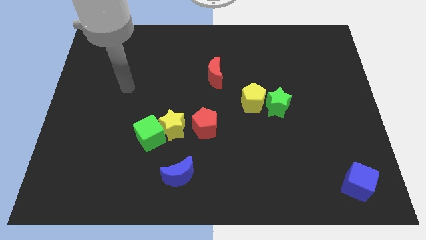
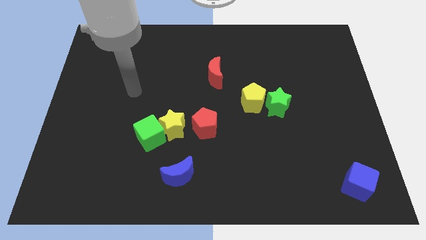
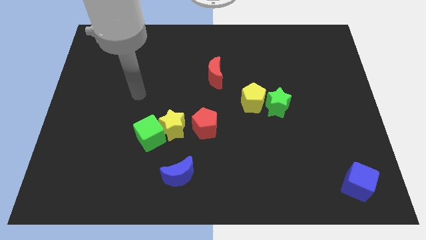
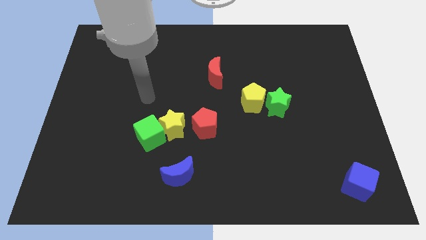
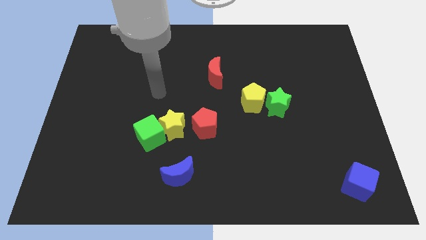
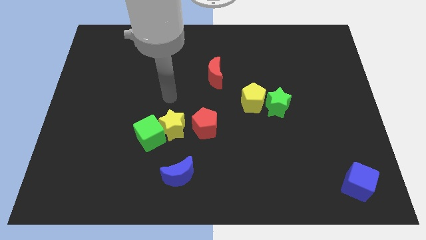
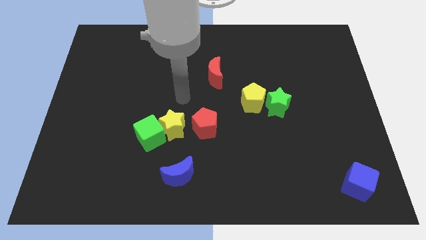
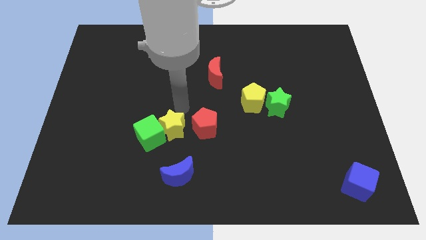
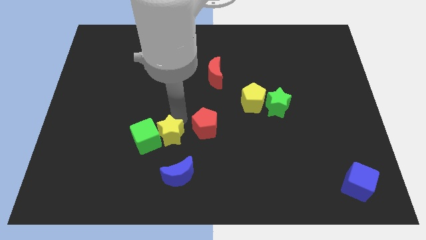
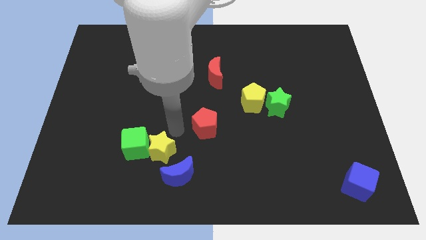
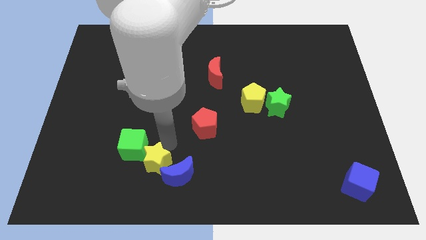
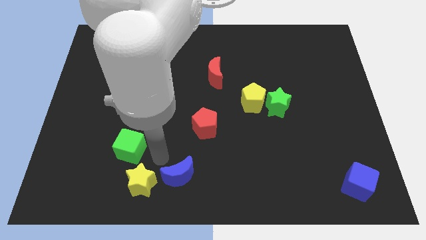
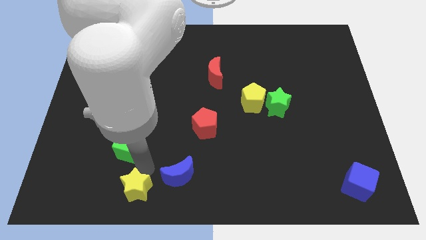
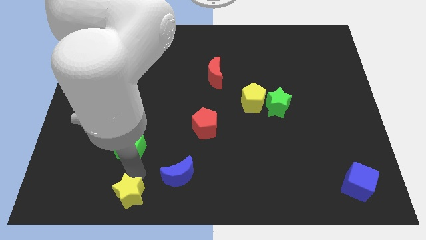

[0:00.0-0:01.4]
separate the green cube from the yellow star

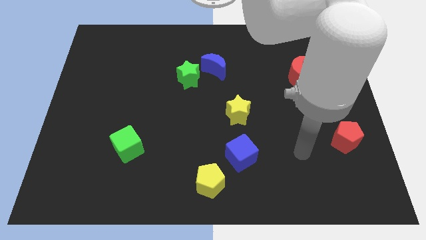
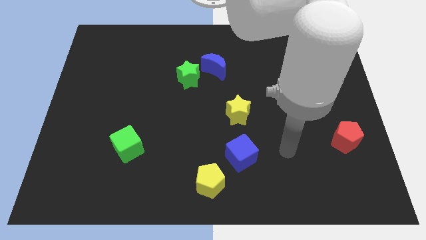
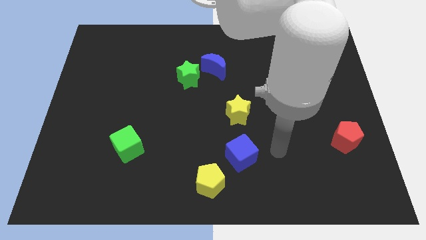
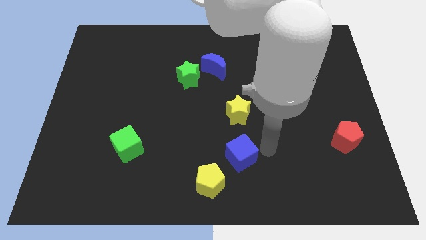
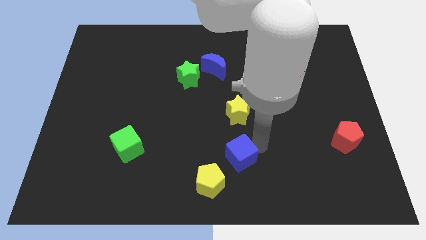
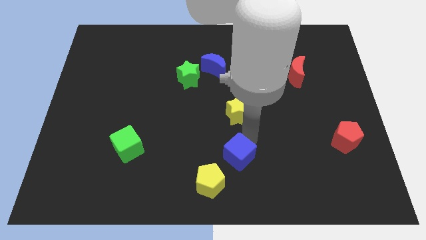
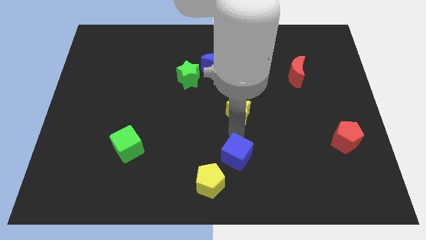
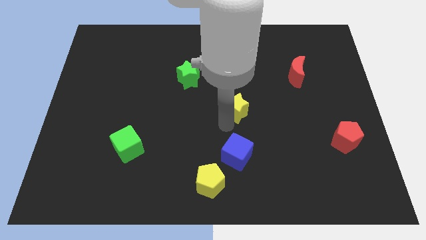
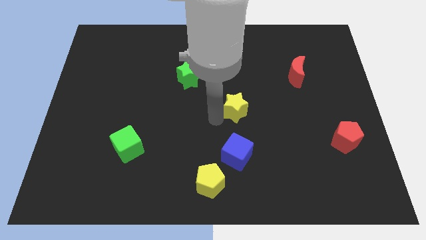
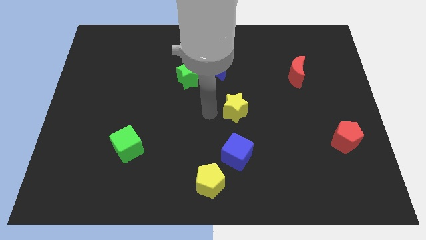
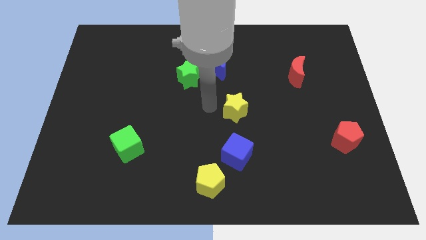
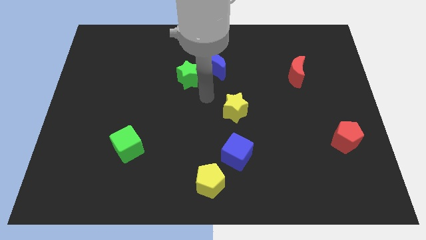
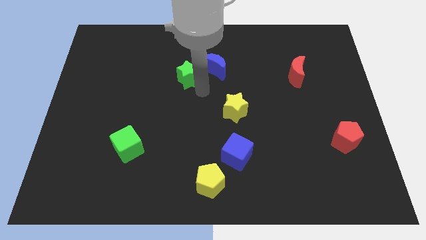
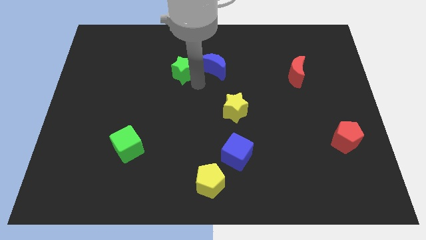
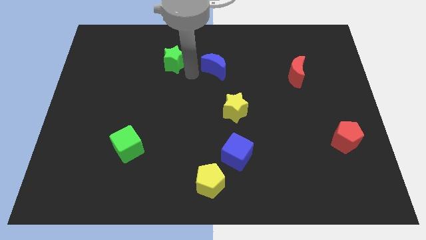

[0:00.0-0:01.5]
move the blue moon away from the green star

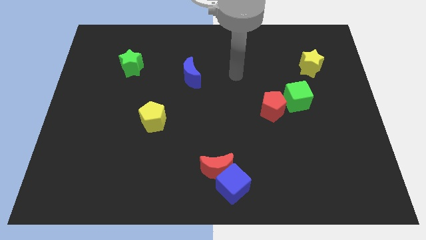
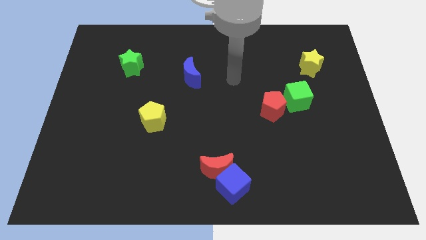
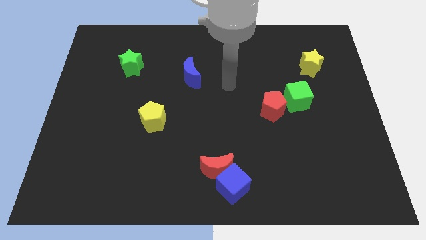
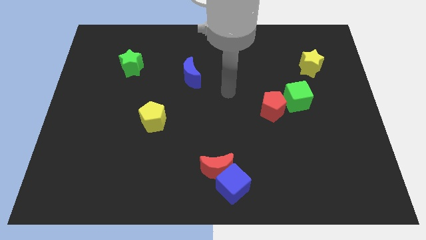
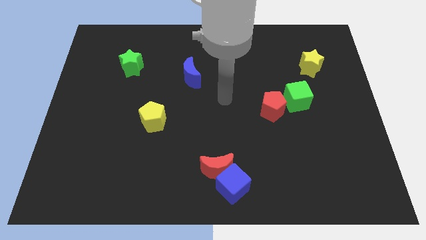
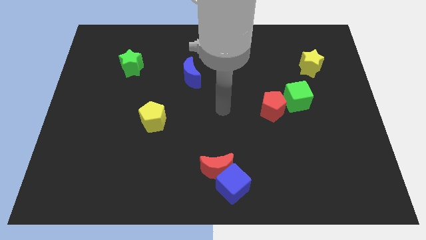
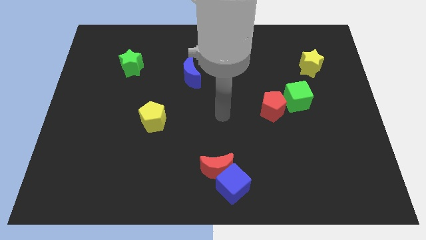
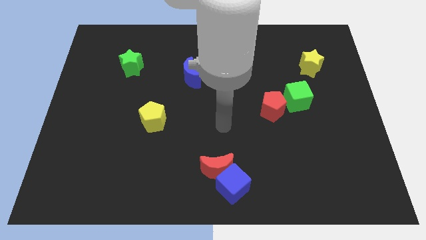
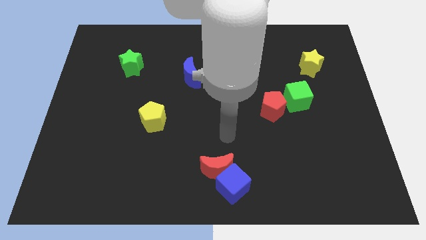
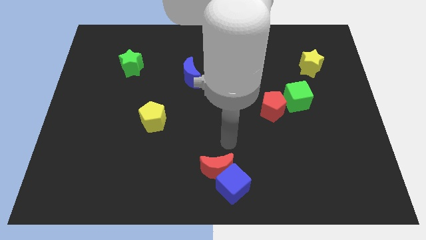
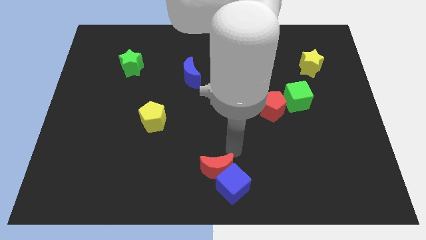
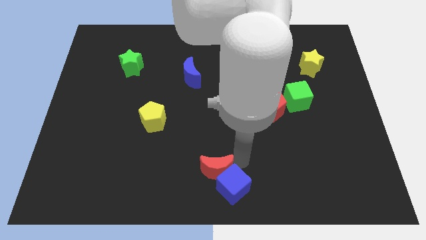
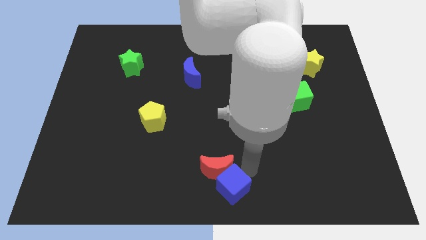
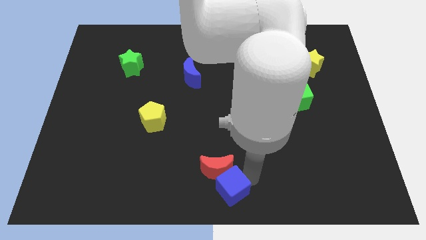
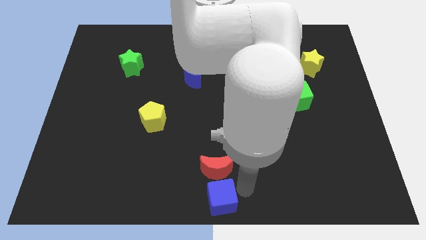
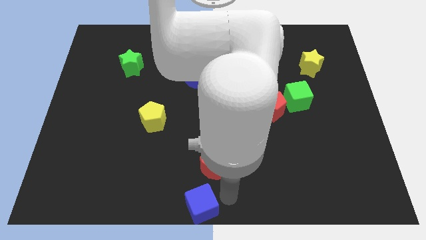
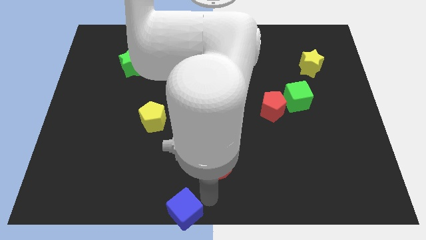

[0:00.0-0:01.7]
separate the red moon from the blue cube

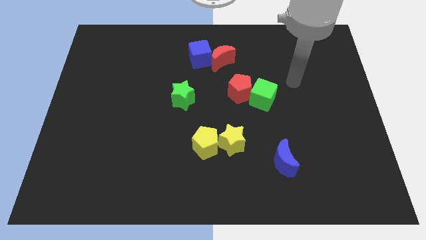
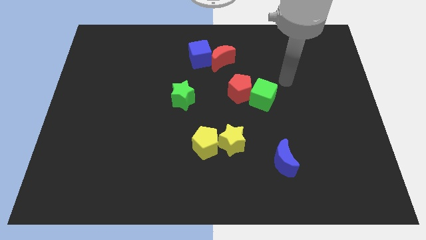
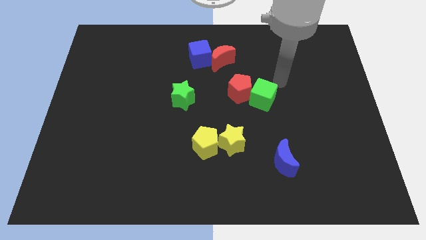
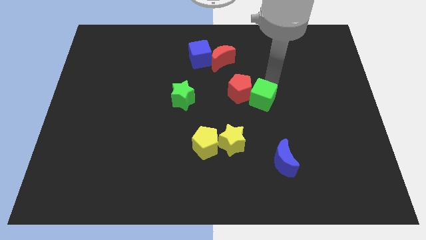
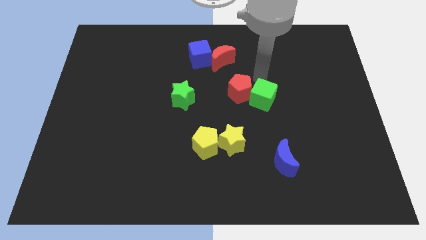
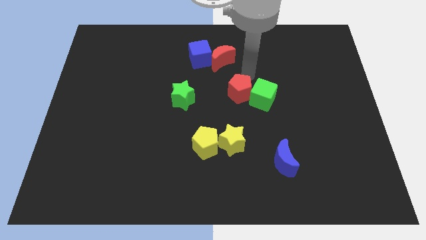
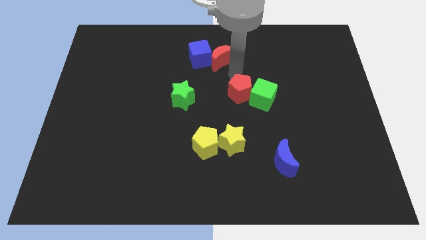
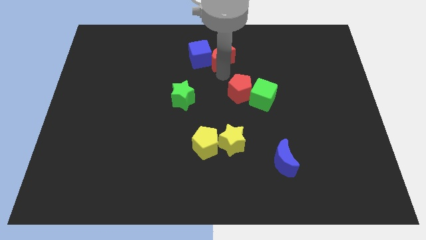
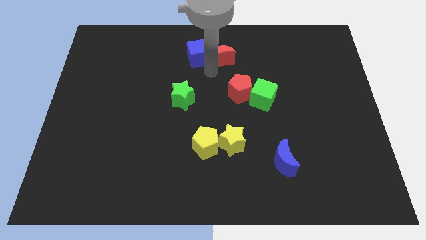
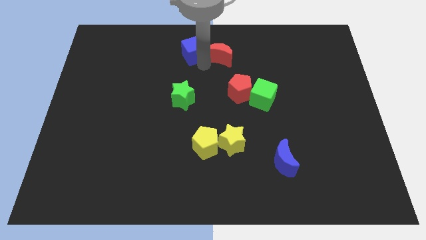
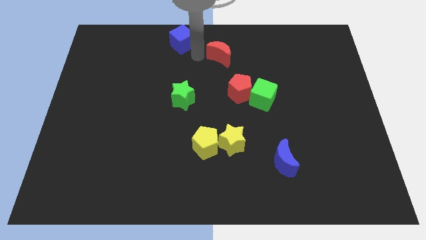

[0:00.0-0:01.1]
move the red moon away from the blue cube

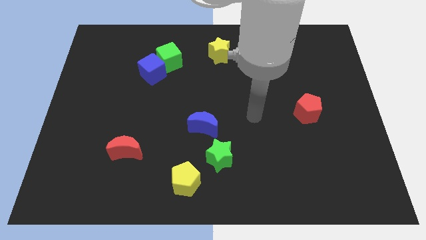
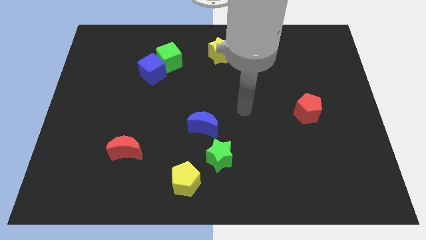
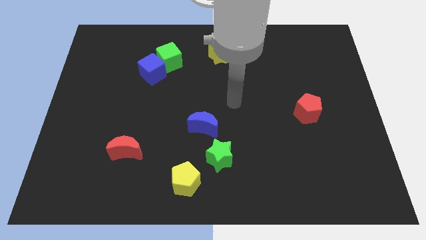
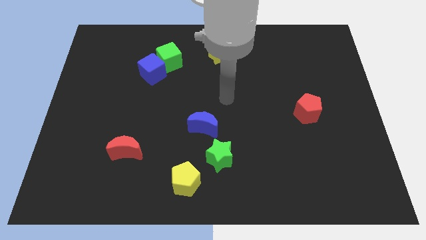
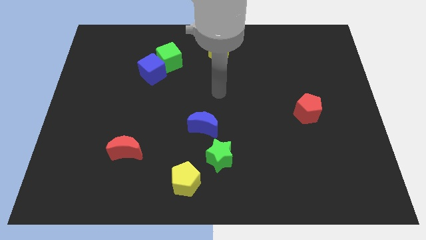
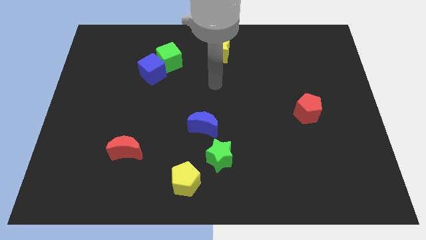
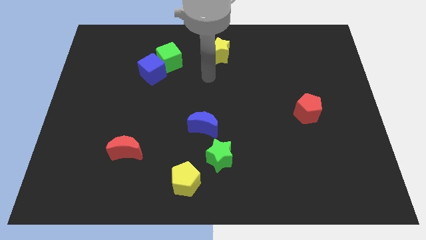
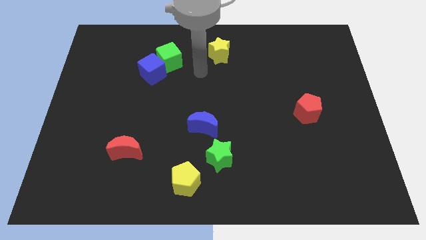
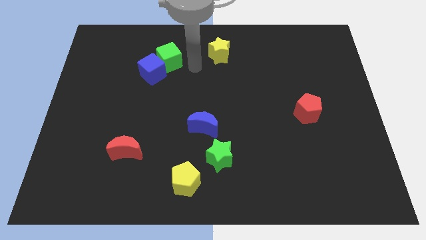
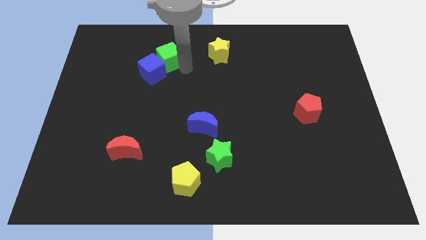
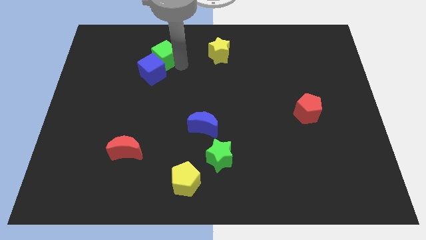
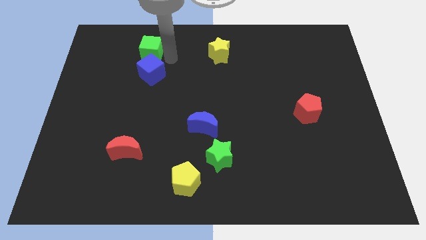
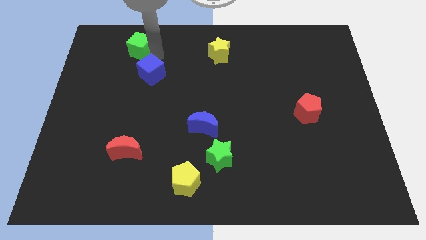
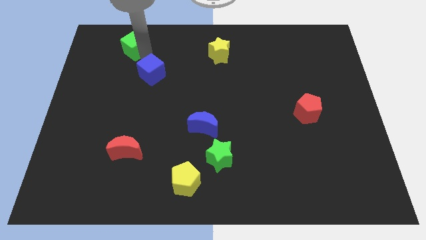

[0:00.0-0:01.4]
pull the blue cube apart from the green cube

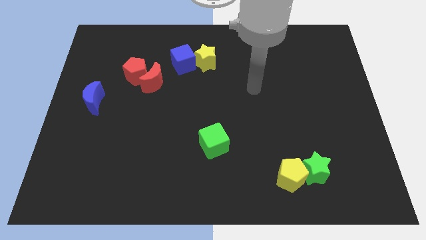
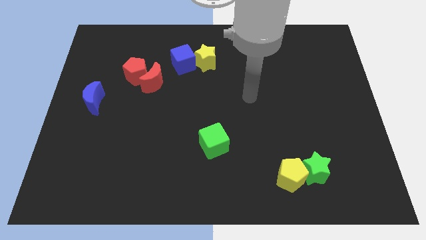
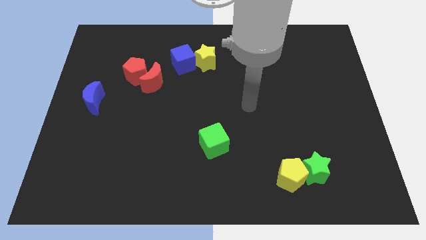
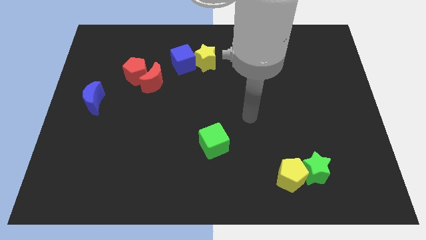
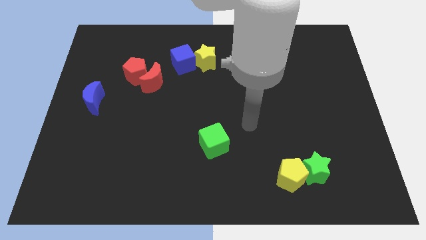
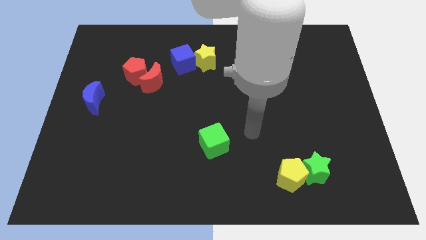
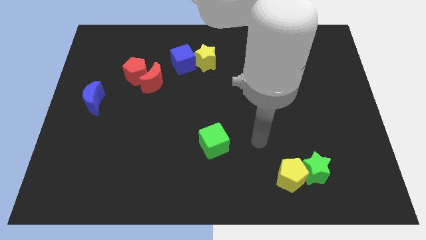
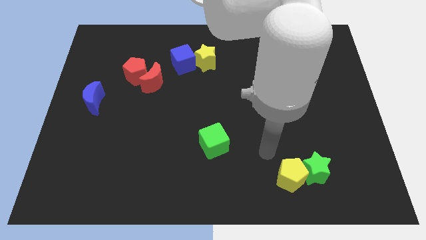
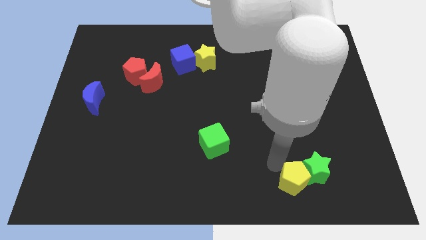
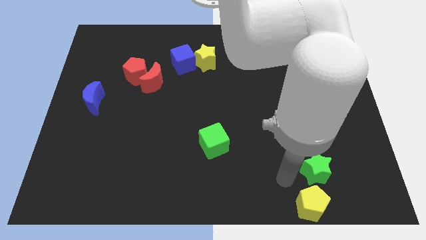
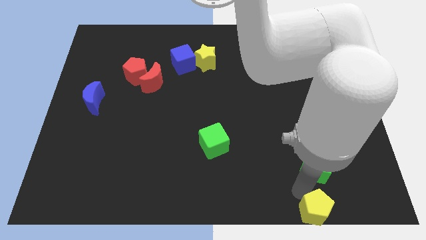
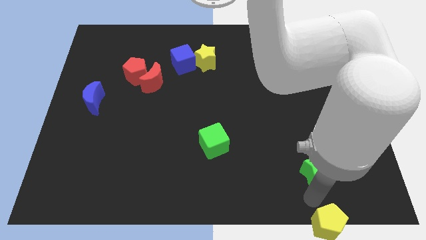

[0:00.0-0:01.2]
move the green star away from the yellow pentagon

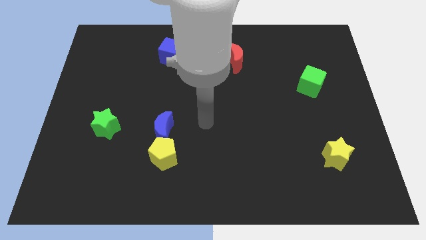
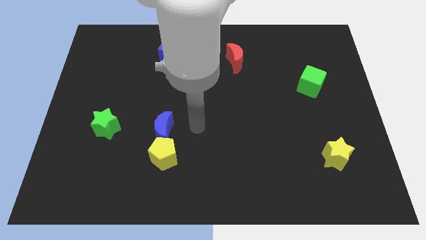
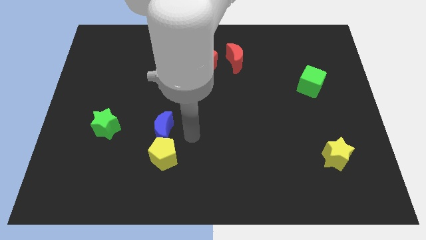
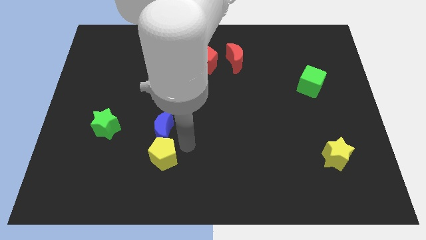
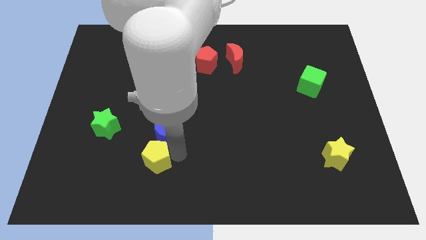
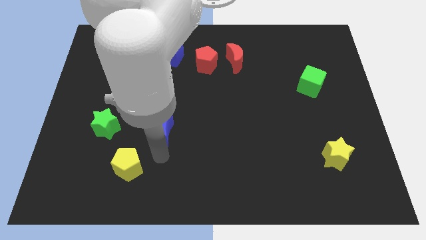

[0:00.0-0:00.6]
pull the blue moon apart from the yellow pentagon

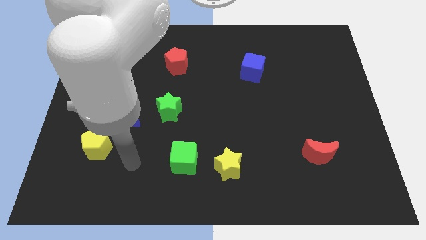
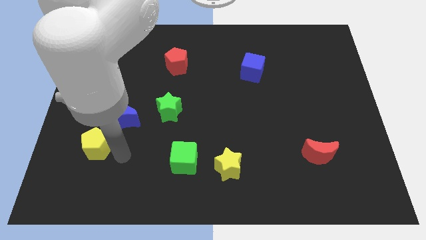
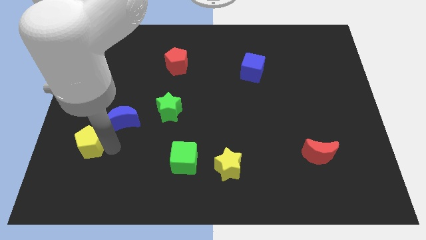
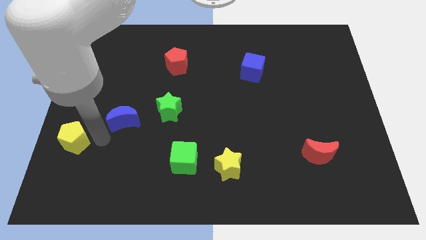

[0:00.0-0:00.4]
separate the blue moon from the yellow pentagon
